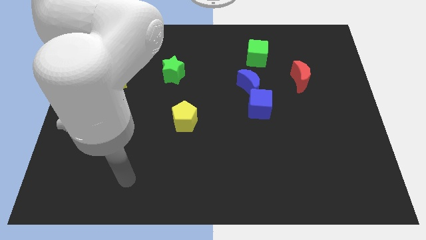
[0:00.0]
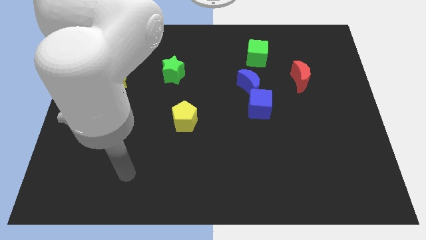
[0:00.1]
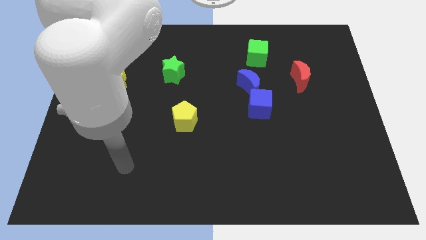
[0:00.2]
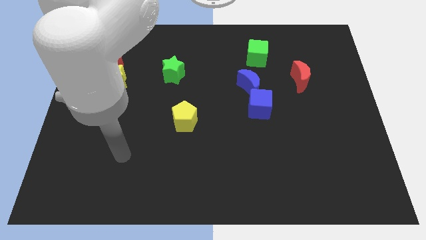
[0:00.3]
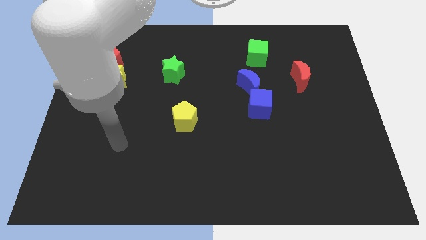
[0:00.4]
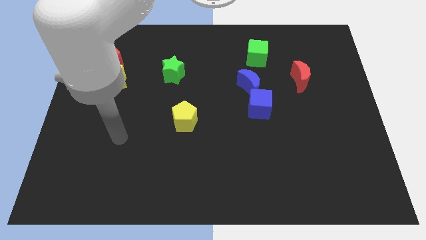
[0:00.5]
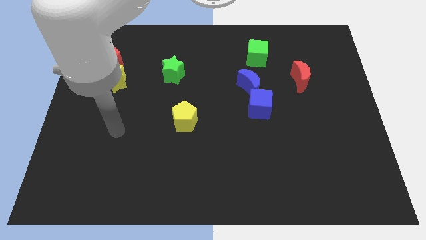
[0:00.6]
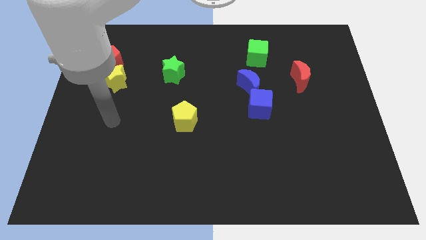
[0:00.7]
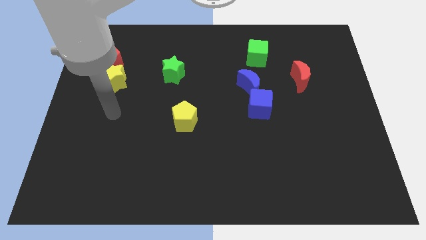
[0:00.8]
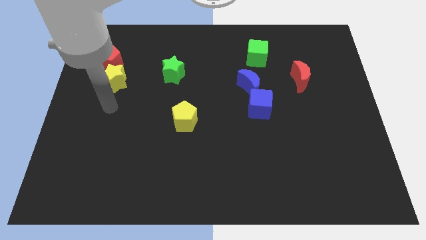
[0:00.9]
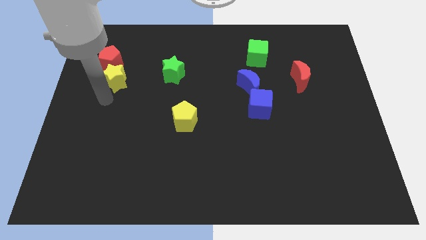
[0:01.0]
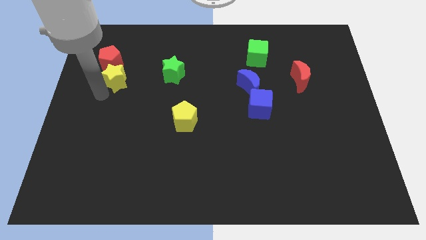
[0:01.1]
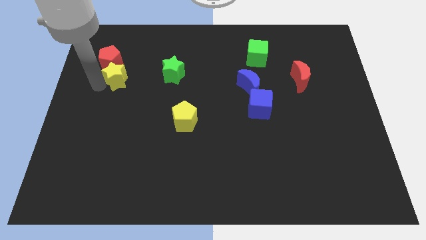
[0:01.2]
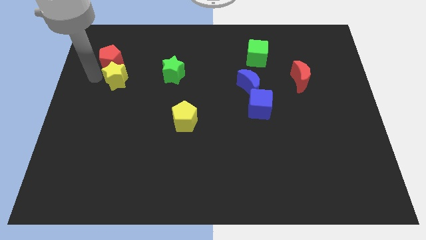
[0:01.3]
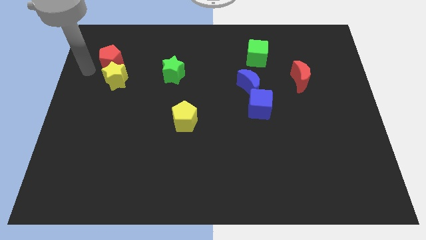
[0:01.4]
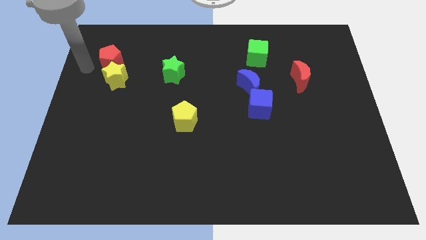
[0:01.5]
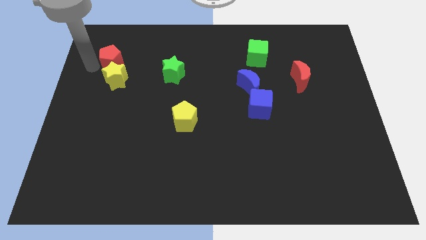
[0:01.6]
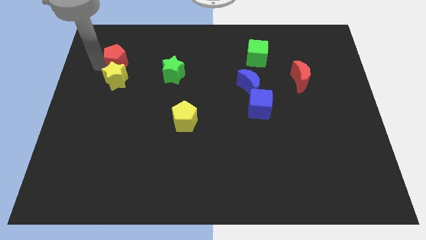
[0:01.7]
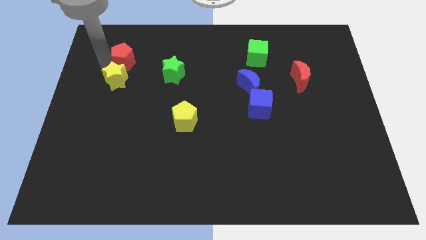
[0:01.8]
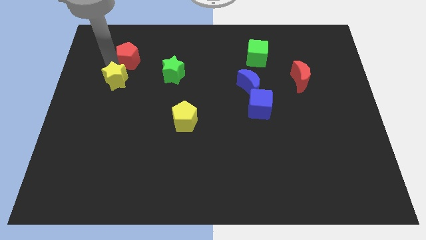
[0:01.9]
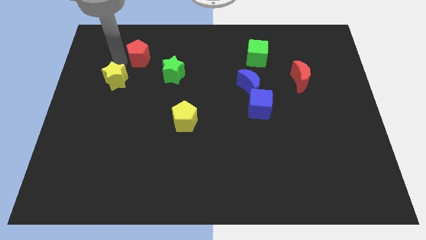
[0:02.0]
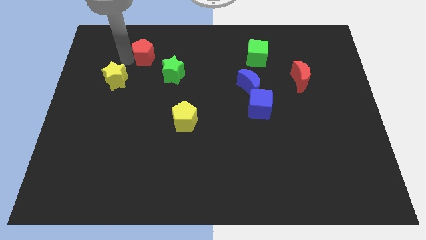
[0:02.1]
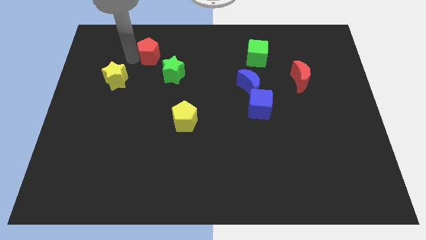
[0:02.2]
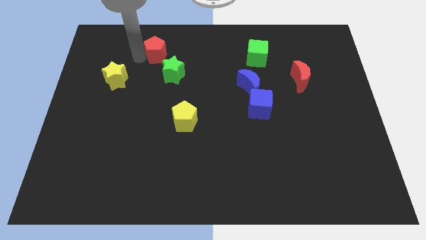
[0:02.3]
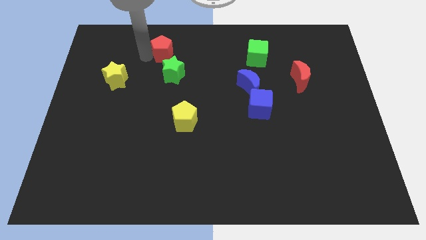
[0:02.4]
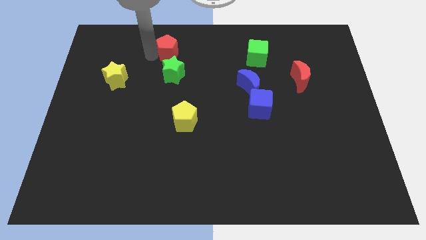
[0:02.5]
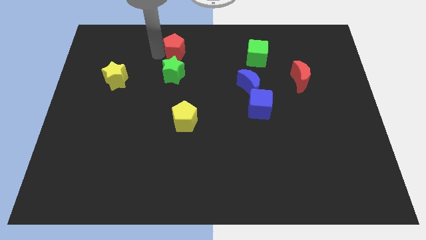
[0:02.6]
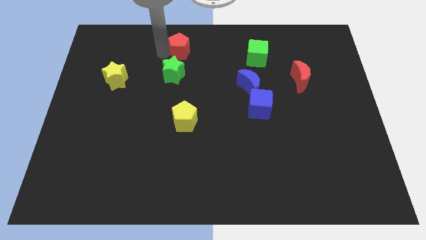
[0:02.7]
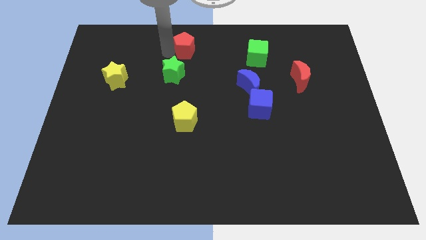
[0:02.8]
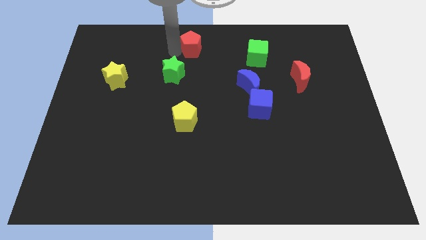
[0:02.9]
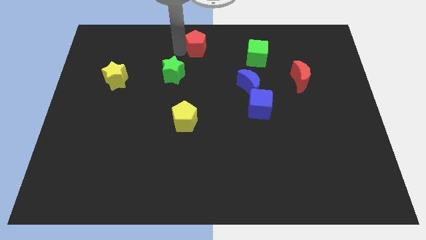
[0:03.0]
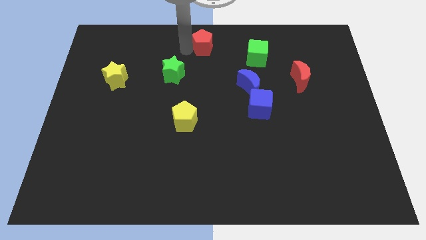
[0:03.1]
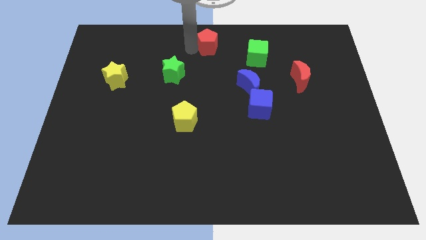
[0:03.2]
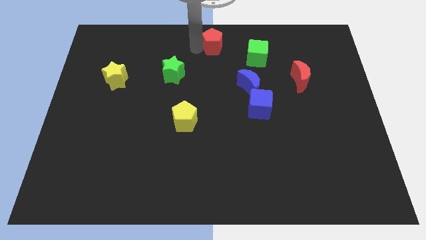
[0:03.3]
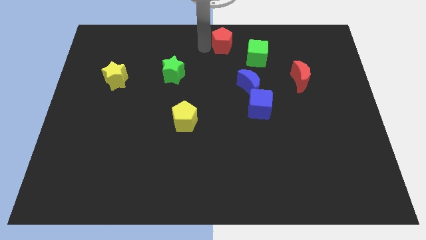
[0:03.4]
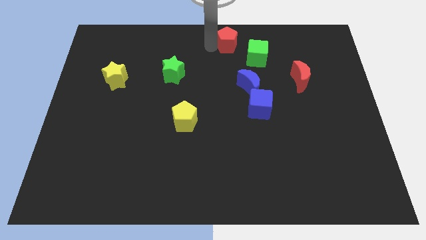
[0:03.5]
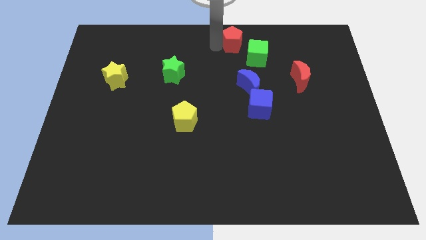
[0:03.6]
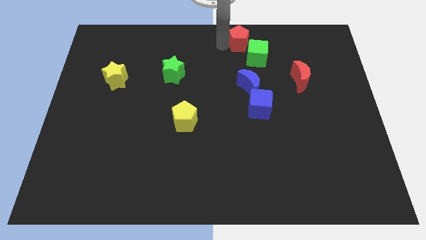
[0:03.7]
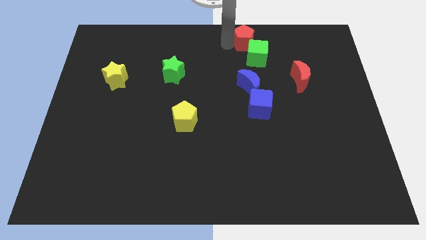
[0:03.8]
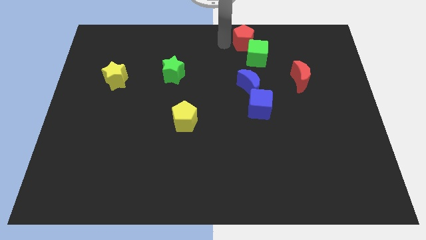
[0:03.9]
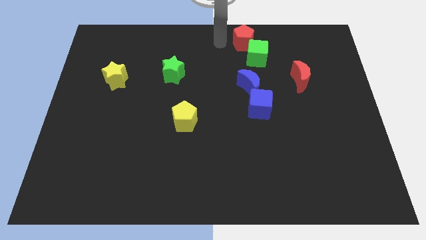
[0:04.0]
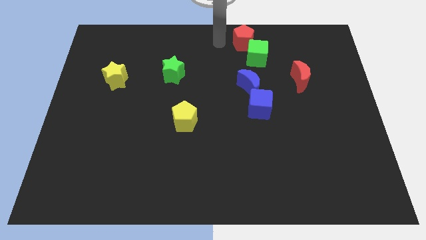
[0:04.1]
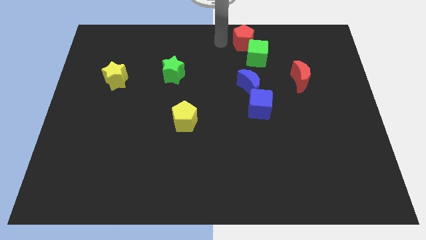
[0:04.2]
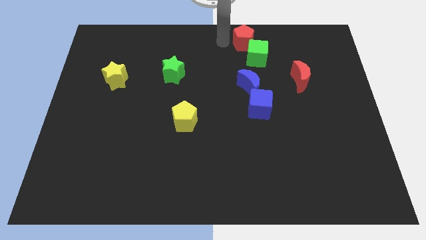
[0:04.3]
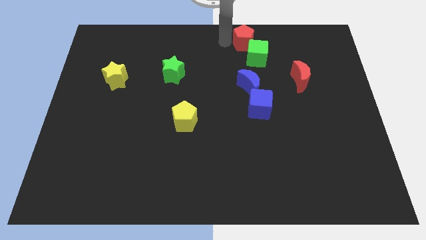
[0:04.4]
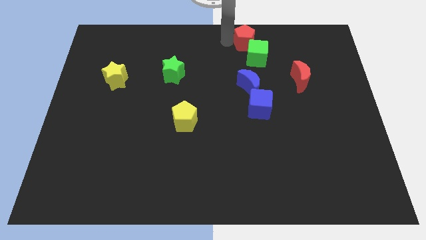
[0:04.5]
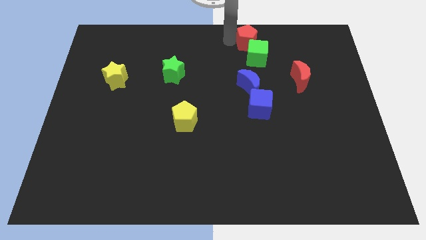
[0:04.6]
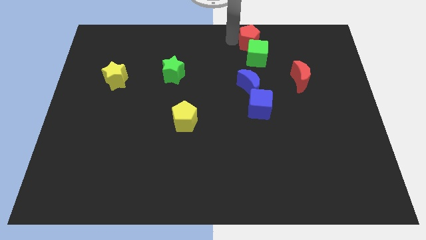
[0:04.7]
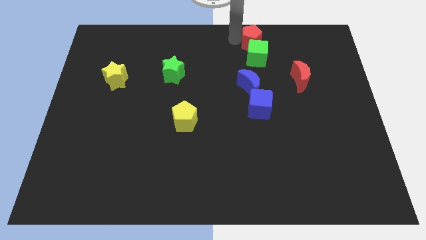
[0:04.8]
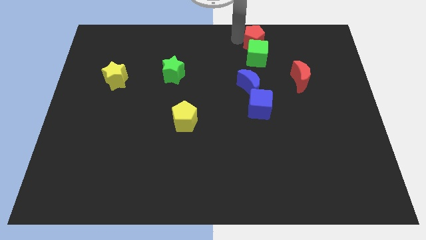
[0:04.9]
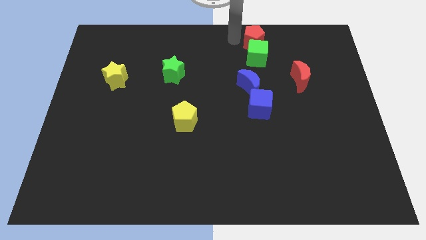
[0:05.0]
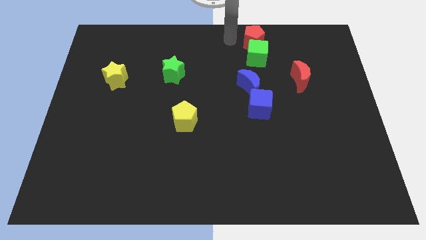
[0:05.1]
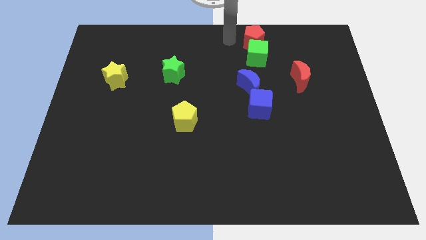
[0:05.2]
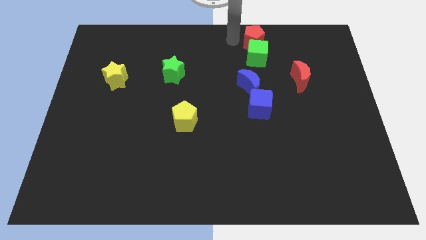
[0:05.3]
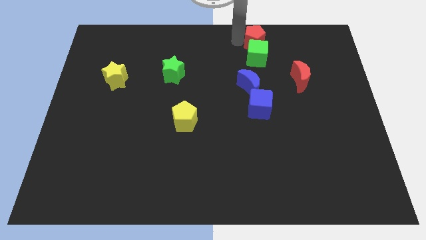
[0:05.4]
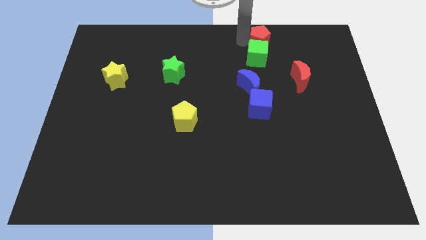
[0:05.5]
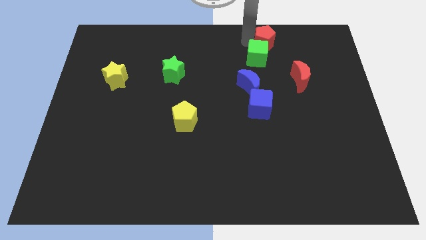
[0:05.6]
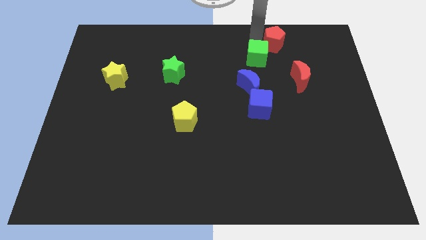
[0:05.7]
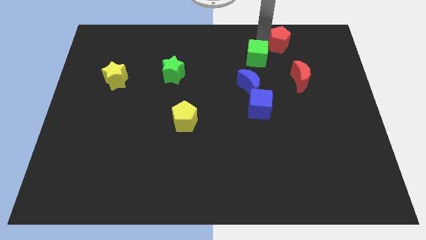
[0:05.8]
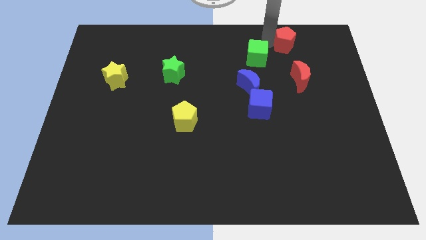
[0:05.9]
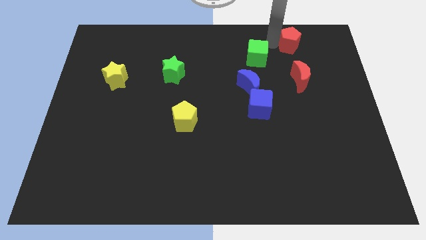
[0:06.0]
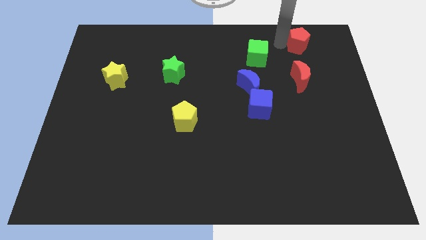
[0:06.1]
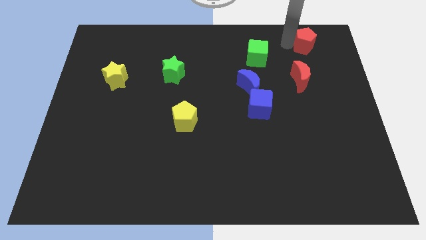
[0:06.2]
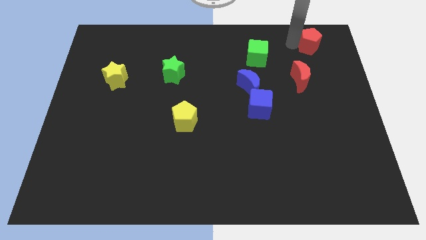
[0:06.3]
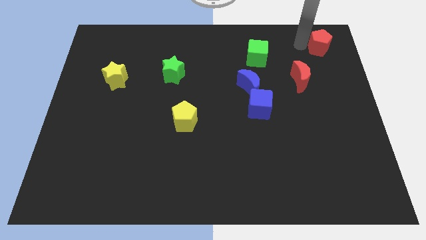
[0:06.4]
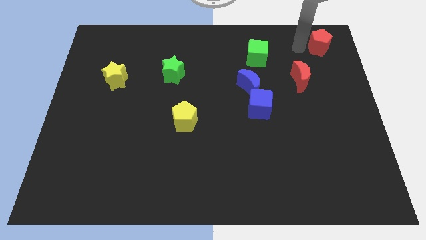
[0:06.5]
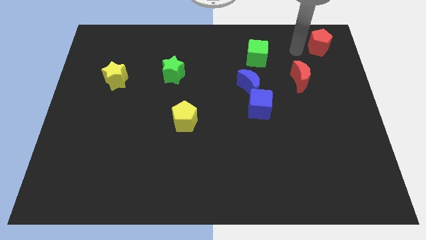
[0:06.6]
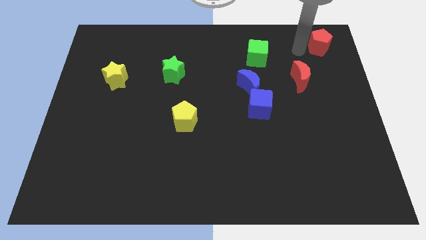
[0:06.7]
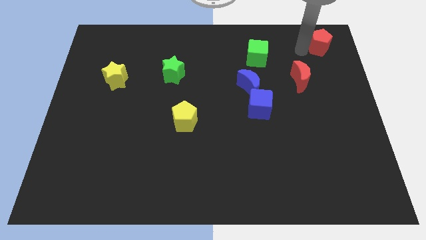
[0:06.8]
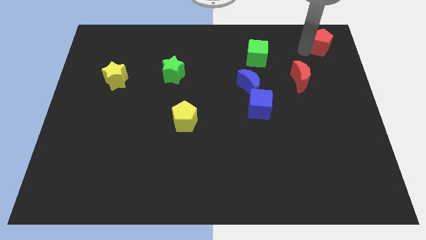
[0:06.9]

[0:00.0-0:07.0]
move the red pentagon to the top right
